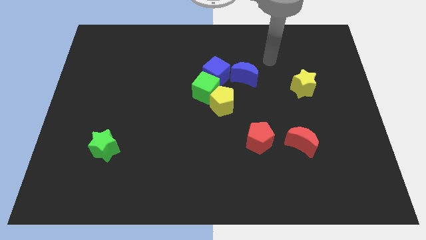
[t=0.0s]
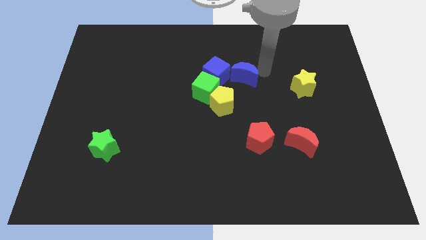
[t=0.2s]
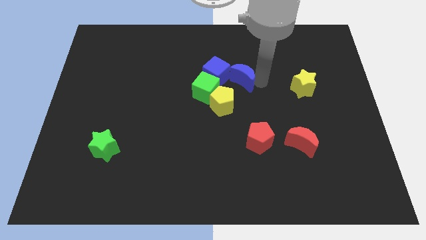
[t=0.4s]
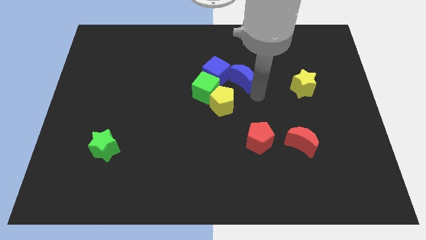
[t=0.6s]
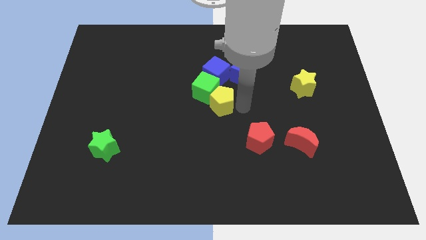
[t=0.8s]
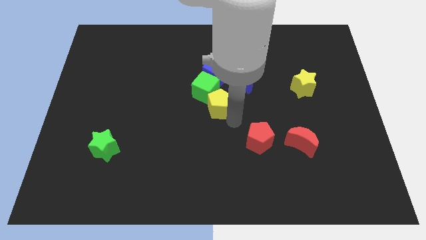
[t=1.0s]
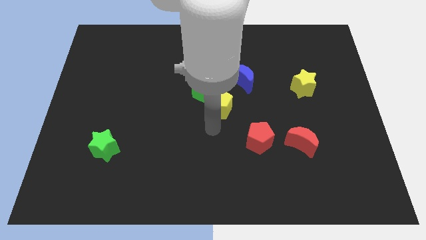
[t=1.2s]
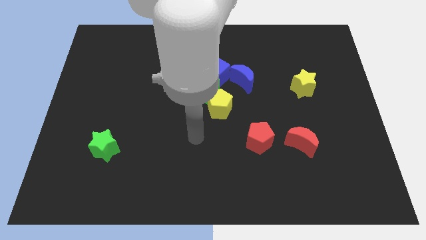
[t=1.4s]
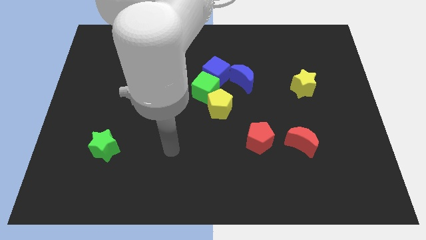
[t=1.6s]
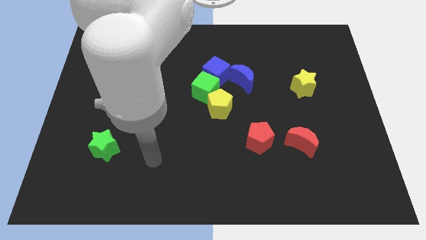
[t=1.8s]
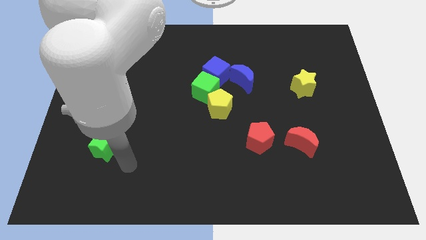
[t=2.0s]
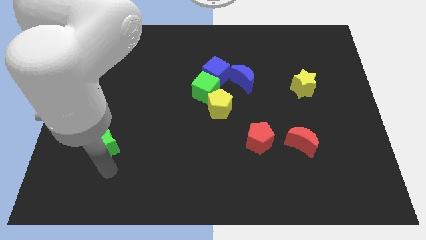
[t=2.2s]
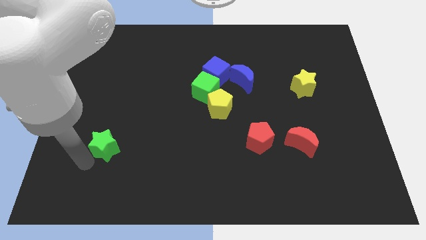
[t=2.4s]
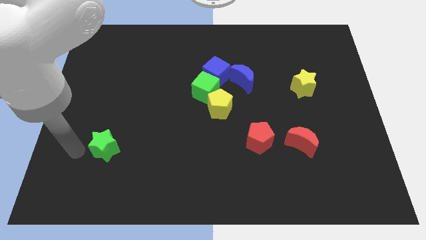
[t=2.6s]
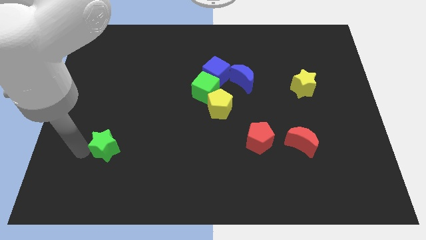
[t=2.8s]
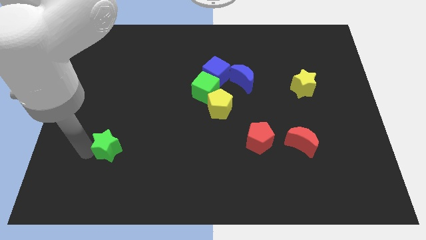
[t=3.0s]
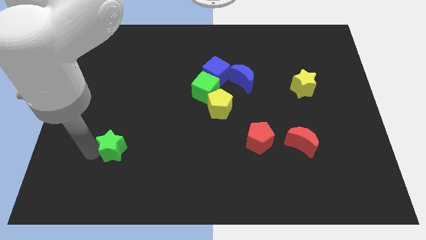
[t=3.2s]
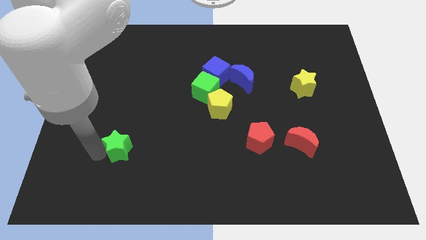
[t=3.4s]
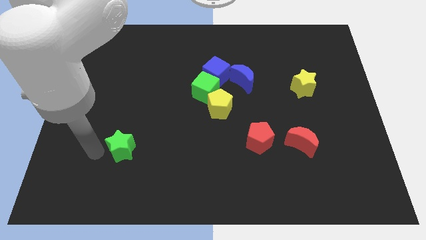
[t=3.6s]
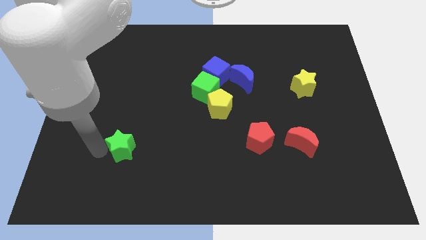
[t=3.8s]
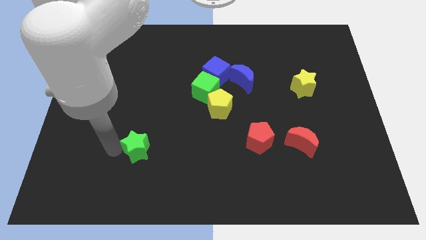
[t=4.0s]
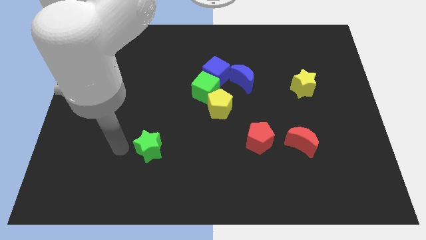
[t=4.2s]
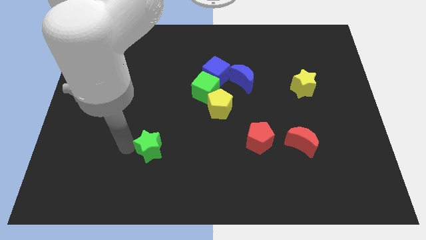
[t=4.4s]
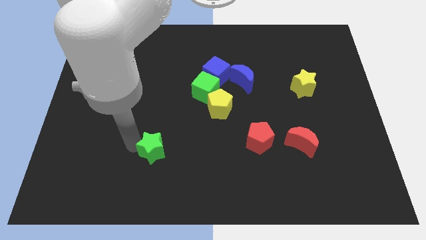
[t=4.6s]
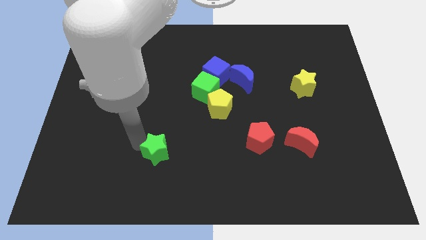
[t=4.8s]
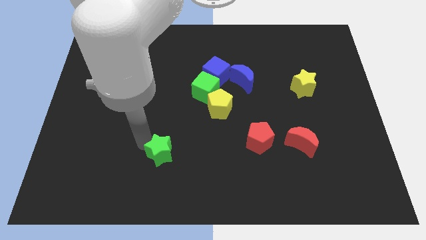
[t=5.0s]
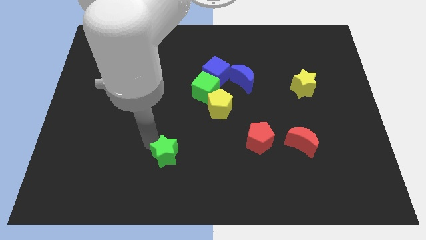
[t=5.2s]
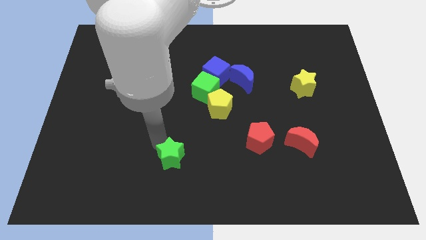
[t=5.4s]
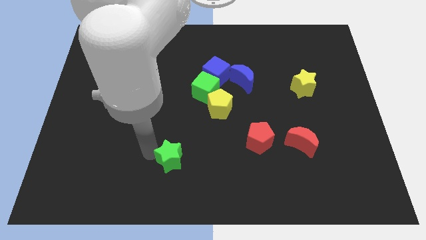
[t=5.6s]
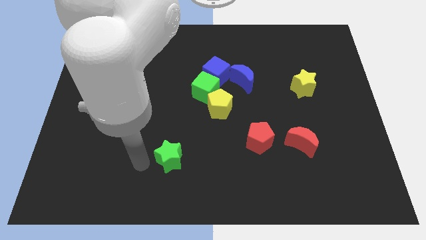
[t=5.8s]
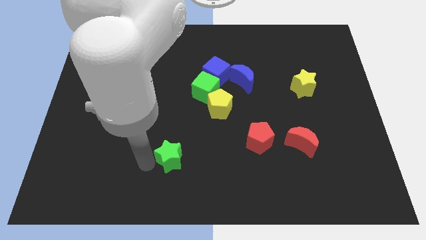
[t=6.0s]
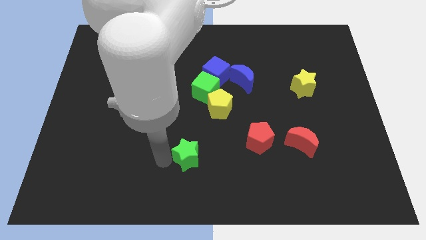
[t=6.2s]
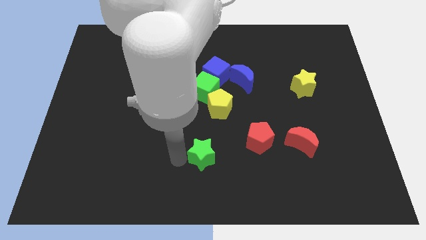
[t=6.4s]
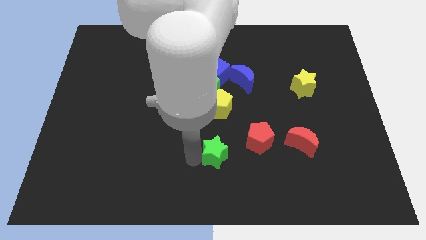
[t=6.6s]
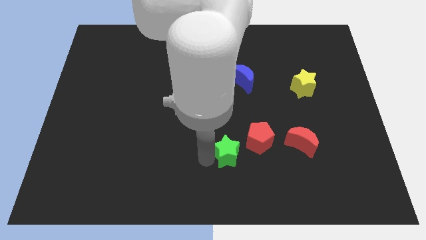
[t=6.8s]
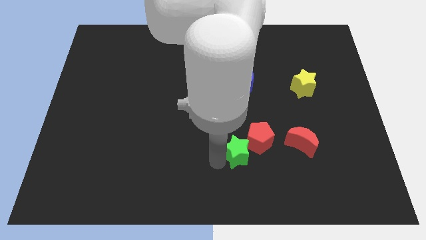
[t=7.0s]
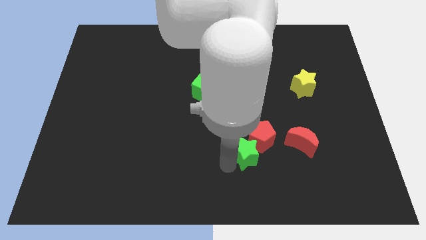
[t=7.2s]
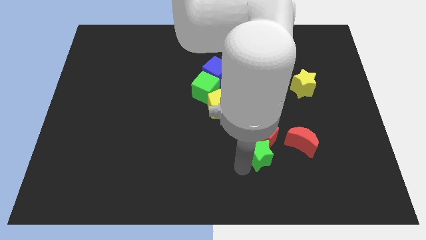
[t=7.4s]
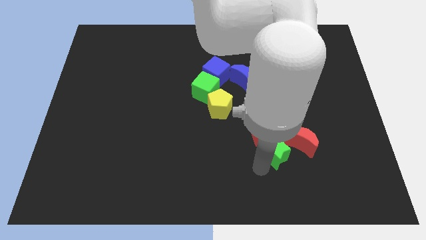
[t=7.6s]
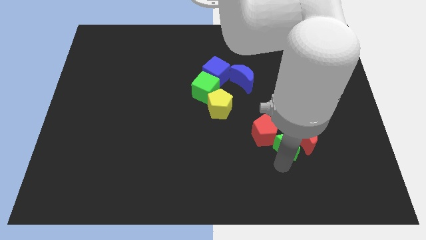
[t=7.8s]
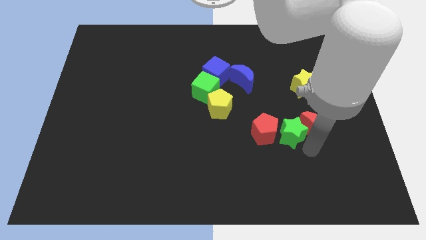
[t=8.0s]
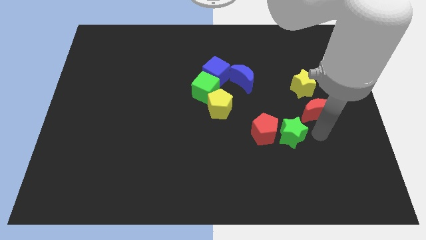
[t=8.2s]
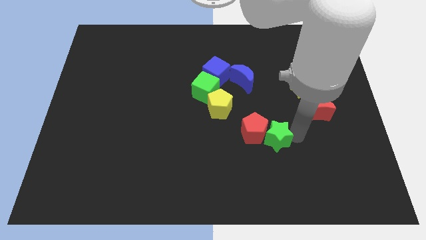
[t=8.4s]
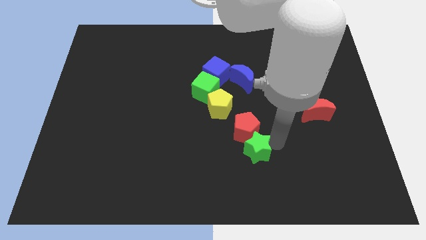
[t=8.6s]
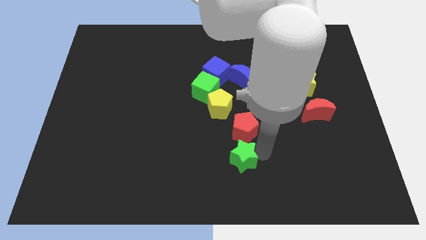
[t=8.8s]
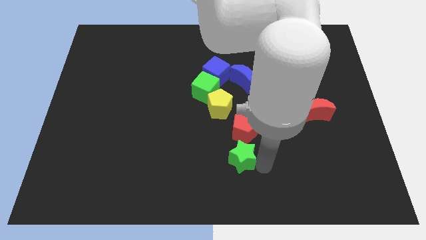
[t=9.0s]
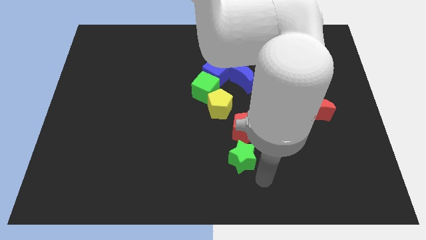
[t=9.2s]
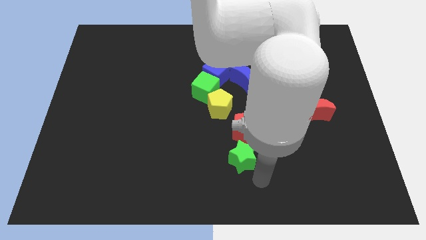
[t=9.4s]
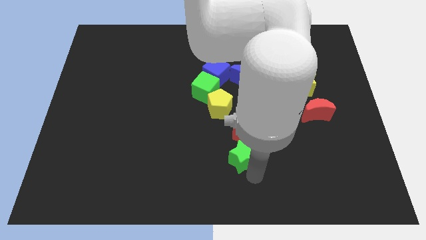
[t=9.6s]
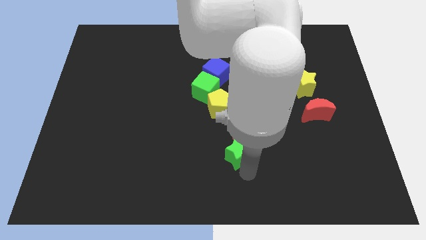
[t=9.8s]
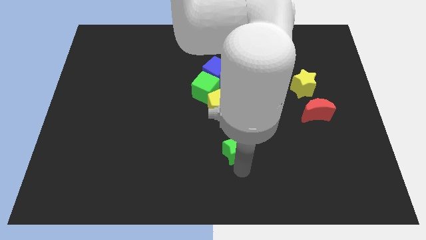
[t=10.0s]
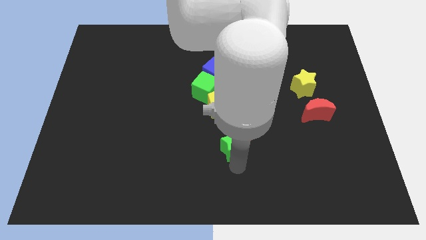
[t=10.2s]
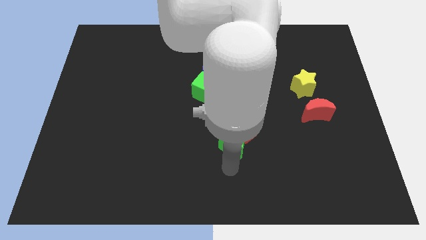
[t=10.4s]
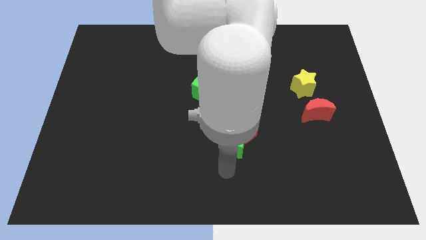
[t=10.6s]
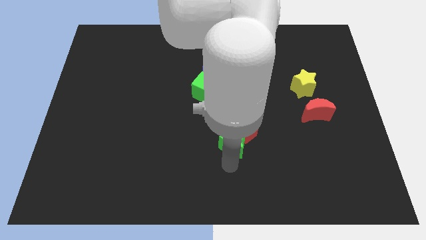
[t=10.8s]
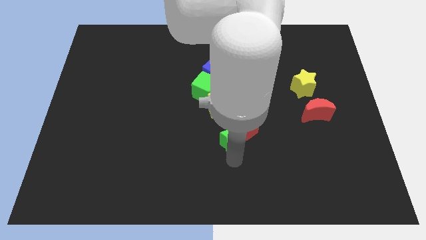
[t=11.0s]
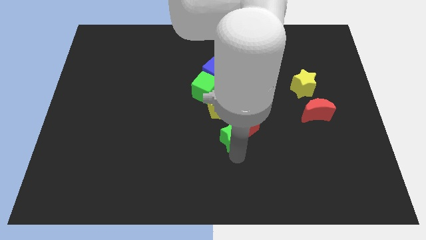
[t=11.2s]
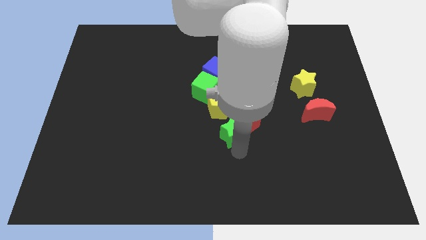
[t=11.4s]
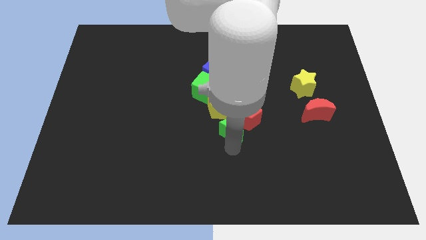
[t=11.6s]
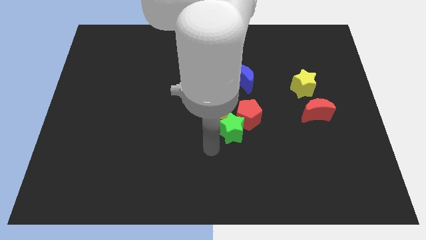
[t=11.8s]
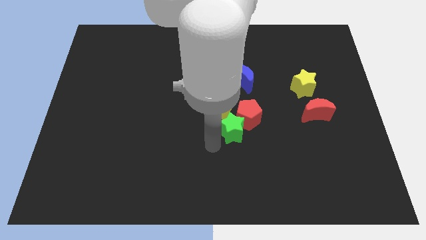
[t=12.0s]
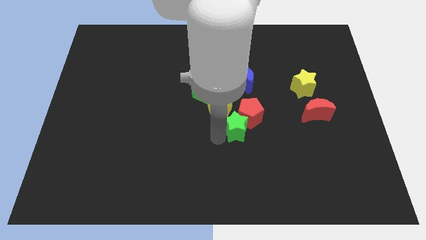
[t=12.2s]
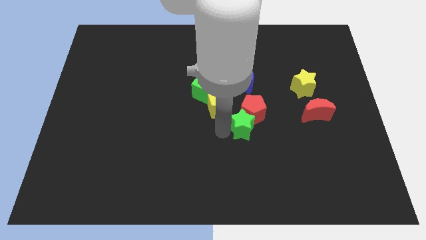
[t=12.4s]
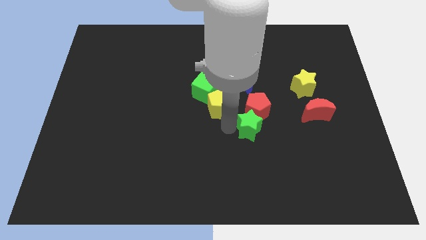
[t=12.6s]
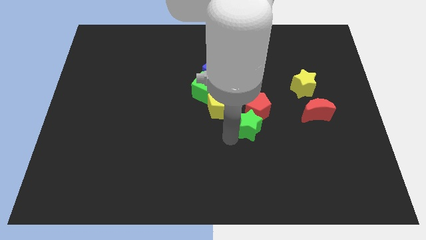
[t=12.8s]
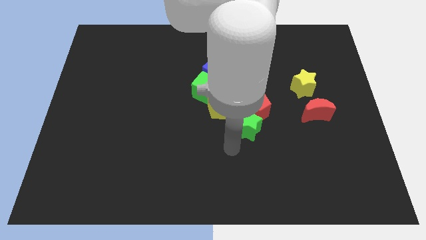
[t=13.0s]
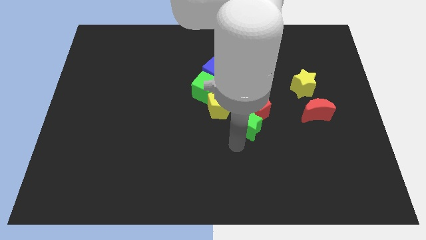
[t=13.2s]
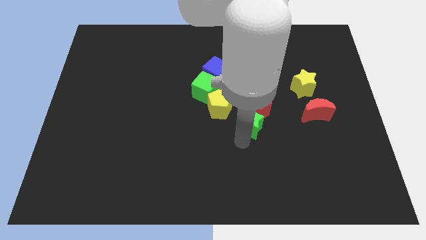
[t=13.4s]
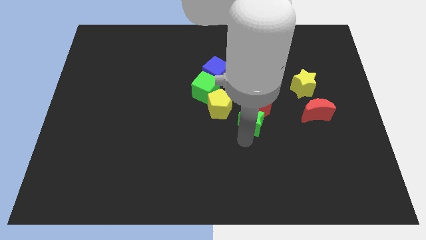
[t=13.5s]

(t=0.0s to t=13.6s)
push the green star to the right side of the yellow pentagon
